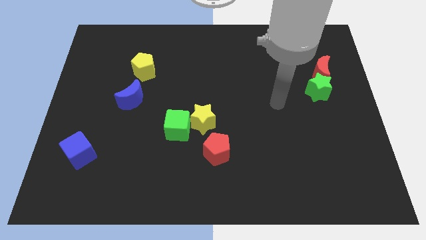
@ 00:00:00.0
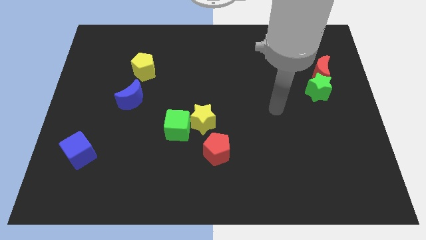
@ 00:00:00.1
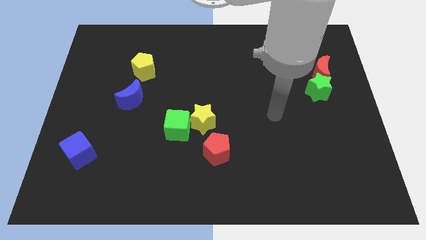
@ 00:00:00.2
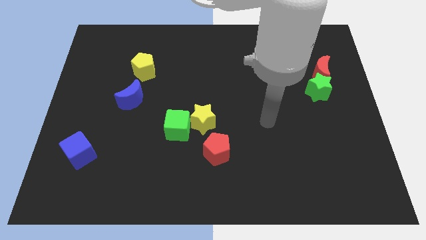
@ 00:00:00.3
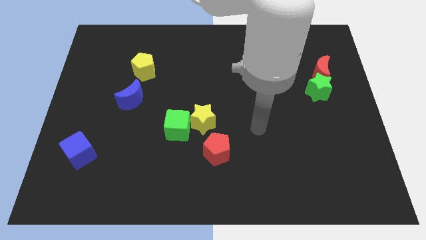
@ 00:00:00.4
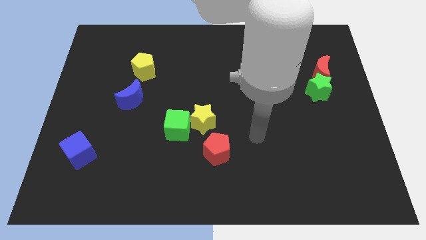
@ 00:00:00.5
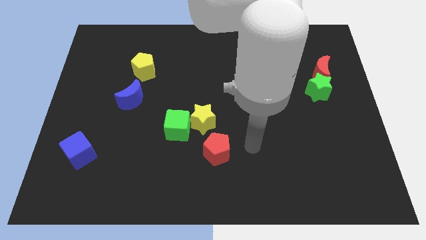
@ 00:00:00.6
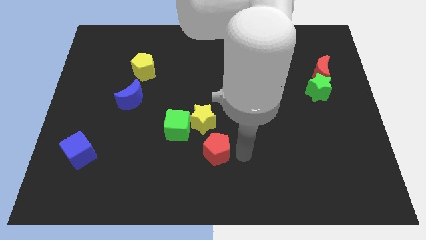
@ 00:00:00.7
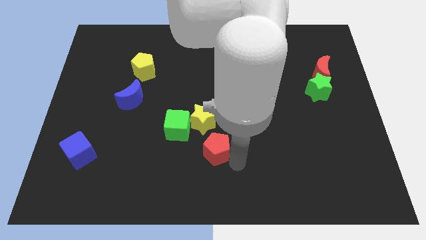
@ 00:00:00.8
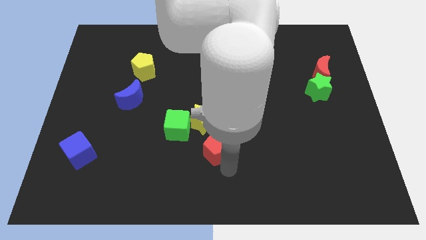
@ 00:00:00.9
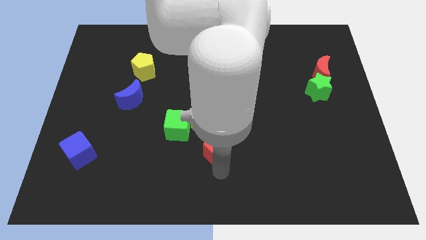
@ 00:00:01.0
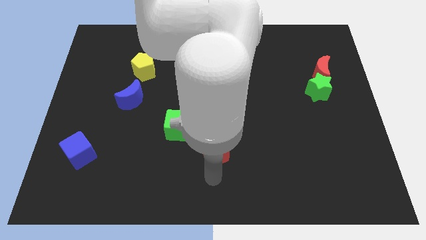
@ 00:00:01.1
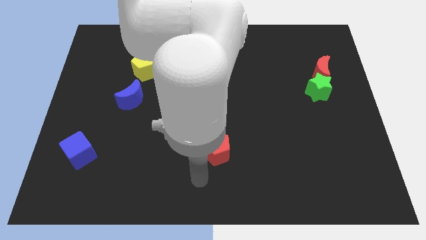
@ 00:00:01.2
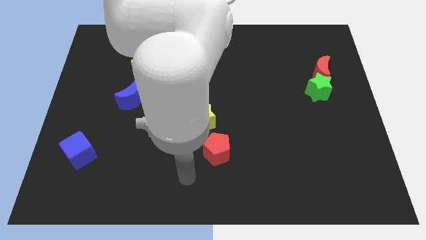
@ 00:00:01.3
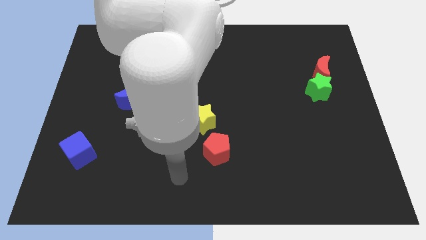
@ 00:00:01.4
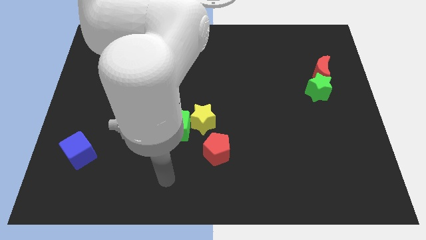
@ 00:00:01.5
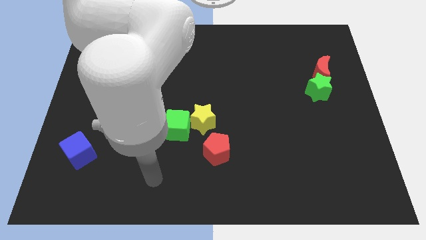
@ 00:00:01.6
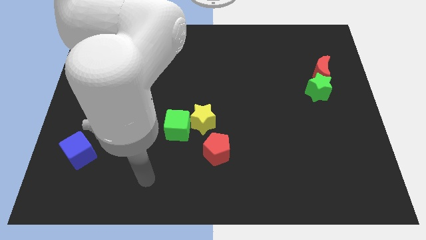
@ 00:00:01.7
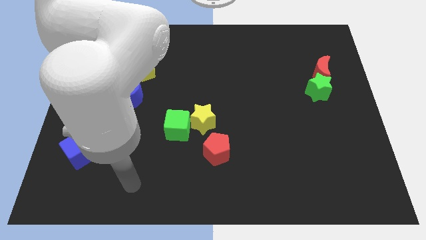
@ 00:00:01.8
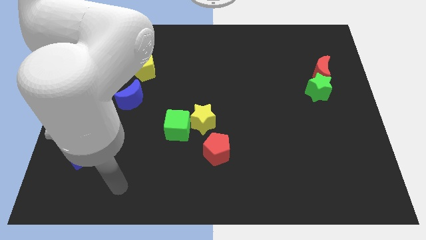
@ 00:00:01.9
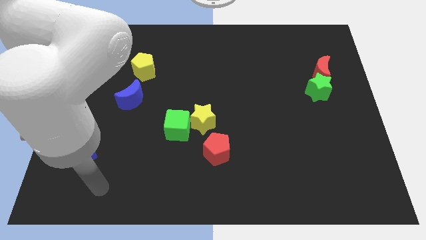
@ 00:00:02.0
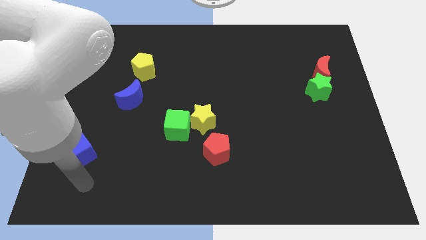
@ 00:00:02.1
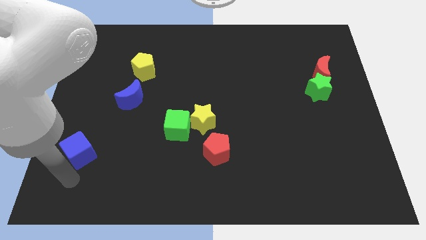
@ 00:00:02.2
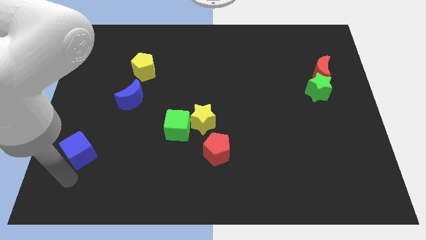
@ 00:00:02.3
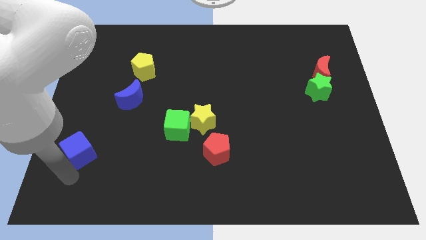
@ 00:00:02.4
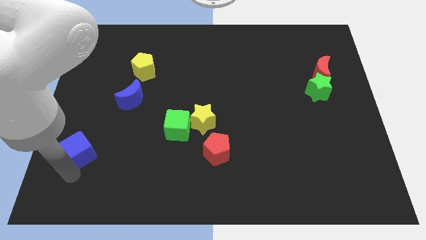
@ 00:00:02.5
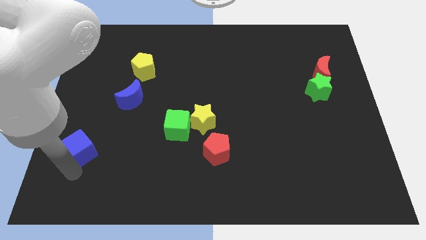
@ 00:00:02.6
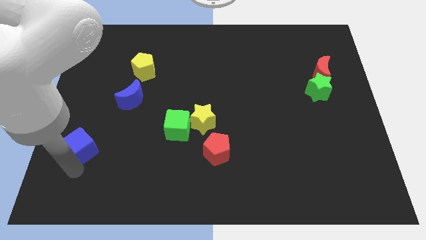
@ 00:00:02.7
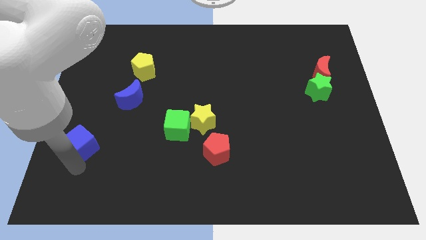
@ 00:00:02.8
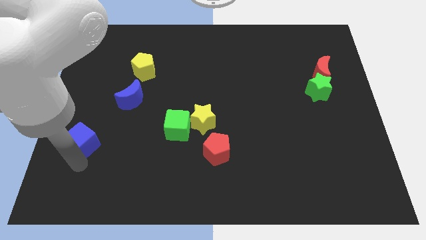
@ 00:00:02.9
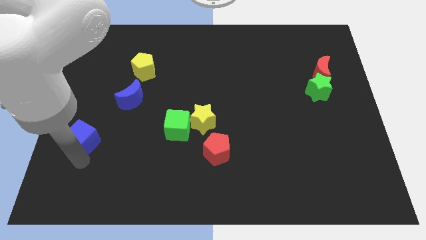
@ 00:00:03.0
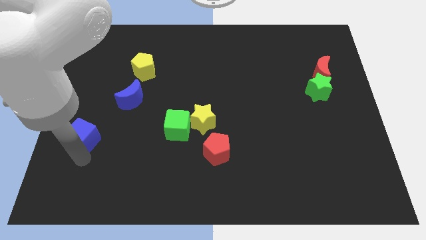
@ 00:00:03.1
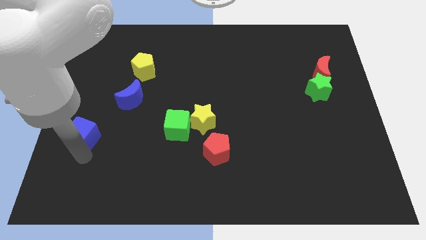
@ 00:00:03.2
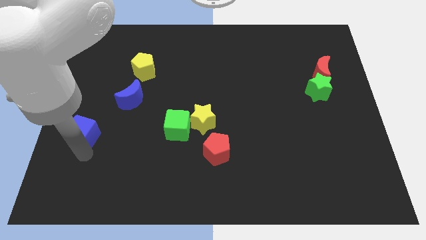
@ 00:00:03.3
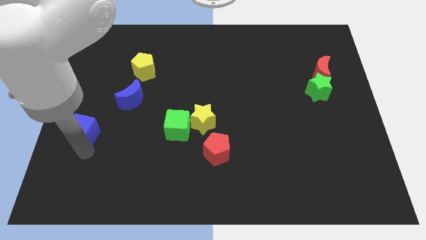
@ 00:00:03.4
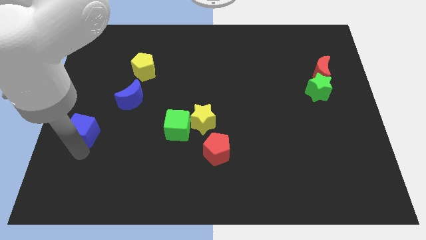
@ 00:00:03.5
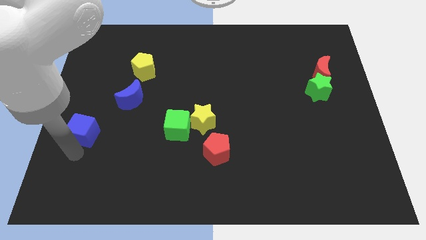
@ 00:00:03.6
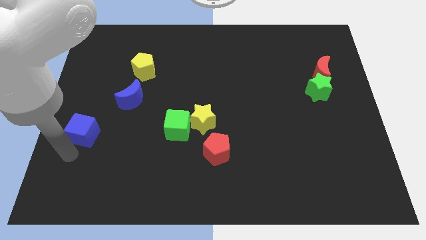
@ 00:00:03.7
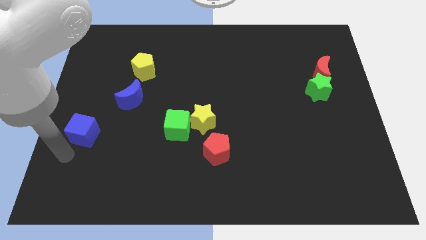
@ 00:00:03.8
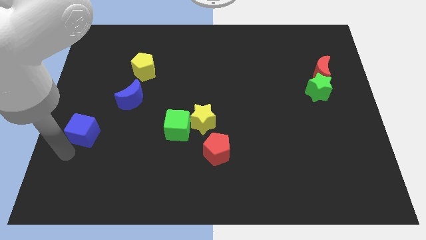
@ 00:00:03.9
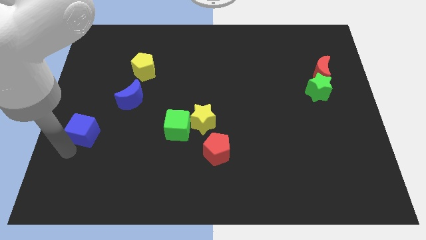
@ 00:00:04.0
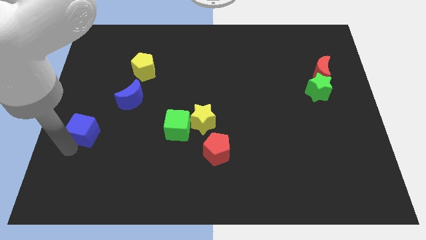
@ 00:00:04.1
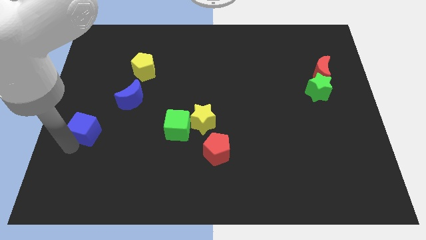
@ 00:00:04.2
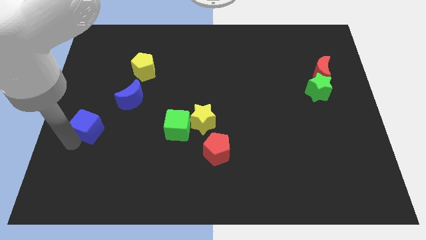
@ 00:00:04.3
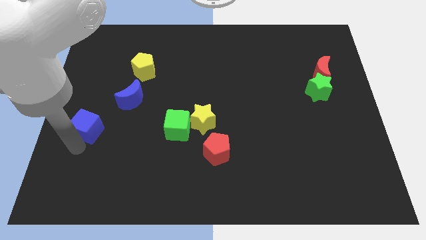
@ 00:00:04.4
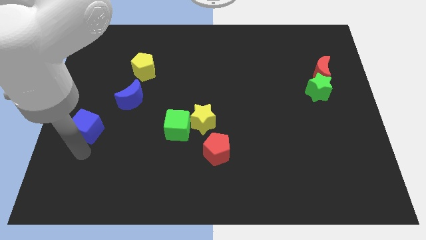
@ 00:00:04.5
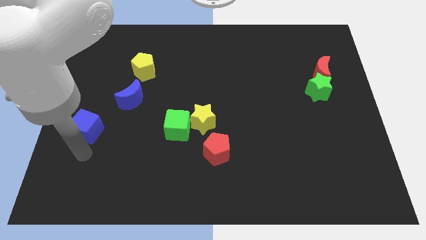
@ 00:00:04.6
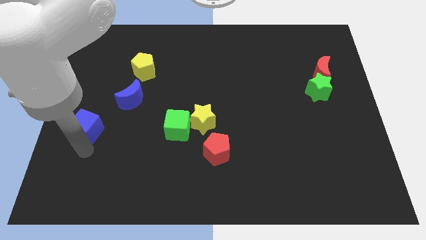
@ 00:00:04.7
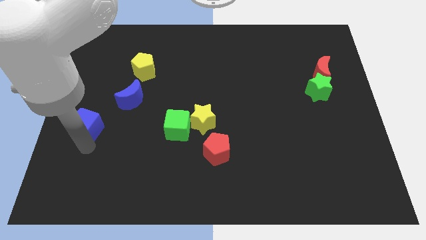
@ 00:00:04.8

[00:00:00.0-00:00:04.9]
push the blue cube a bit upwards

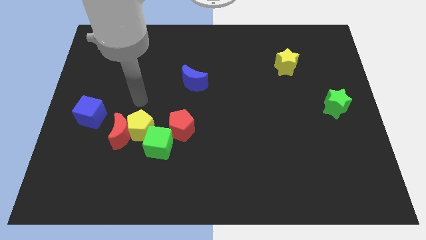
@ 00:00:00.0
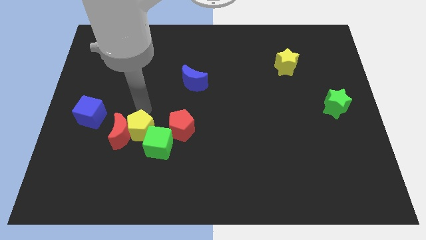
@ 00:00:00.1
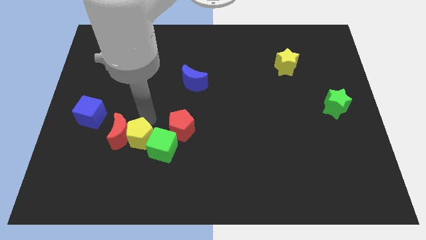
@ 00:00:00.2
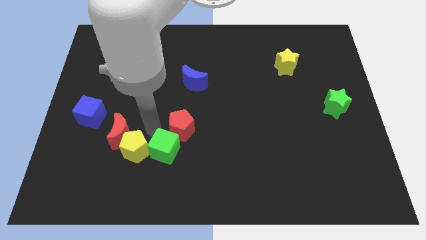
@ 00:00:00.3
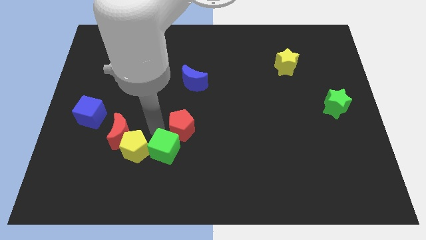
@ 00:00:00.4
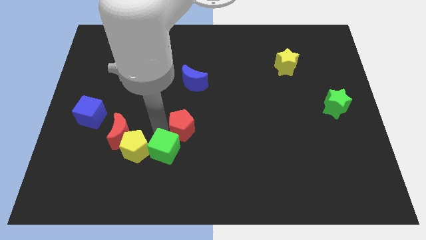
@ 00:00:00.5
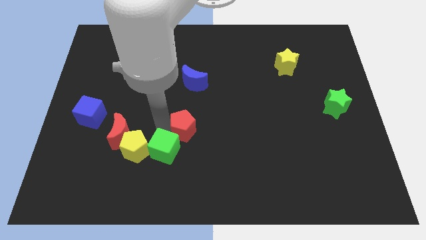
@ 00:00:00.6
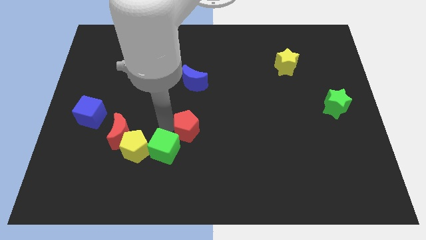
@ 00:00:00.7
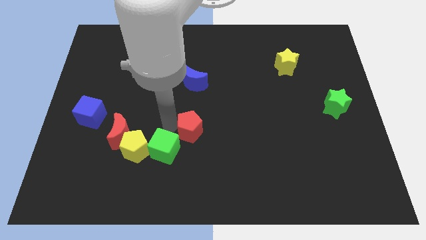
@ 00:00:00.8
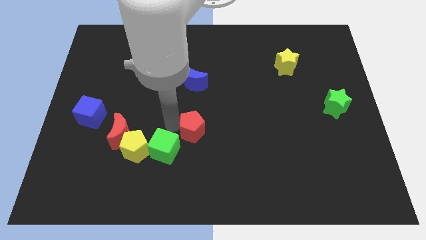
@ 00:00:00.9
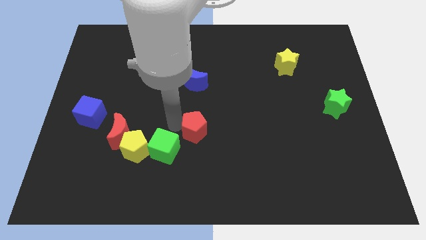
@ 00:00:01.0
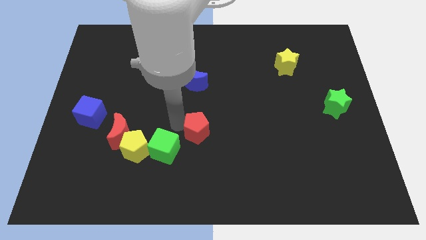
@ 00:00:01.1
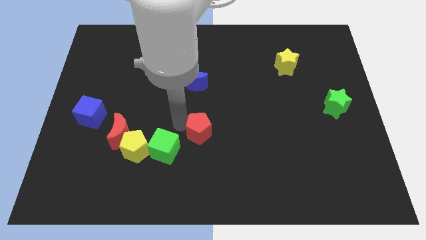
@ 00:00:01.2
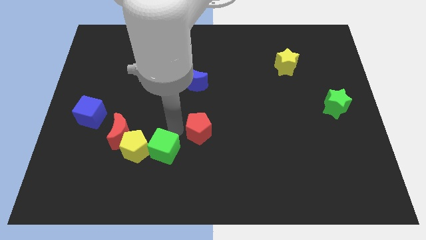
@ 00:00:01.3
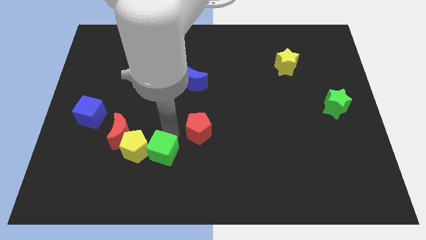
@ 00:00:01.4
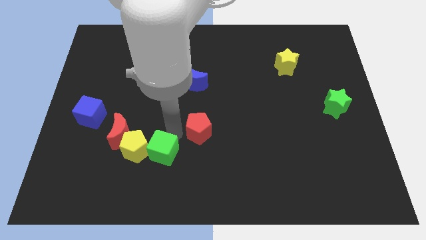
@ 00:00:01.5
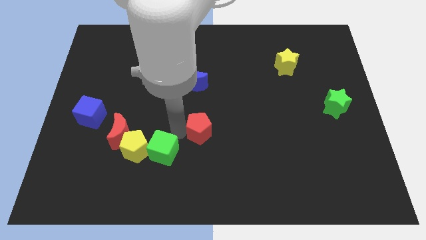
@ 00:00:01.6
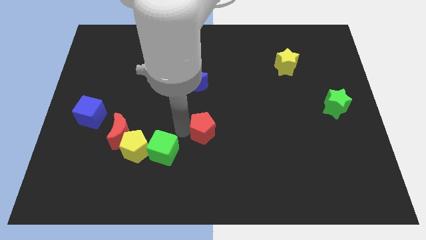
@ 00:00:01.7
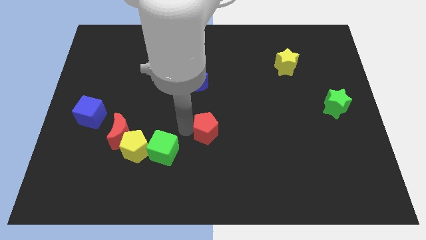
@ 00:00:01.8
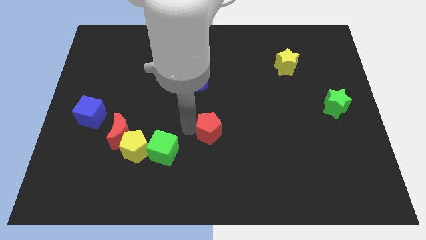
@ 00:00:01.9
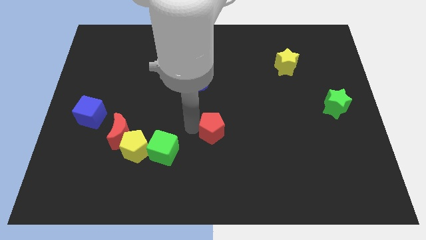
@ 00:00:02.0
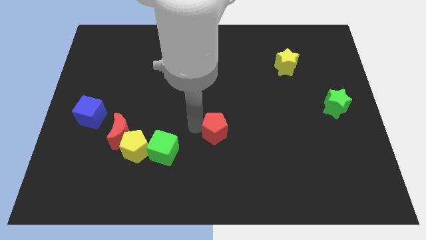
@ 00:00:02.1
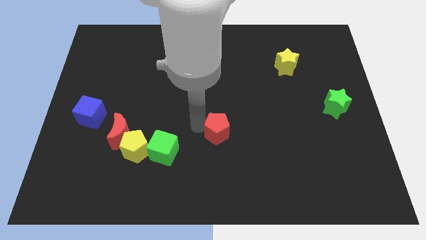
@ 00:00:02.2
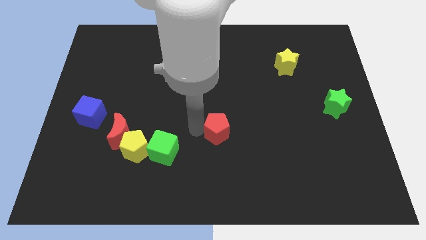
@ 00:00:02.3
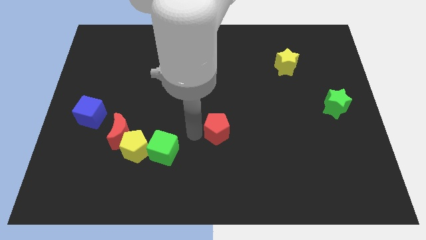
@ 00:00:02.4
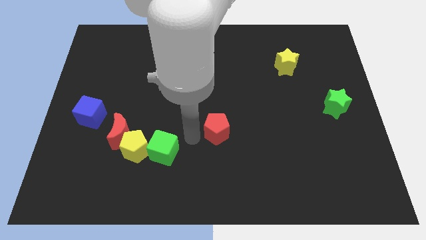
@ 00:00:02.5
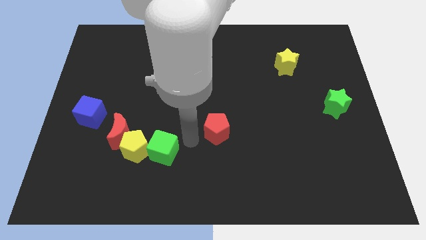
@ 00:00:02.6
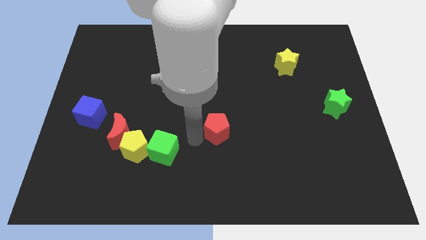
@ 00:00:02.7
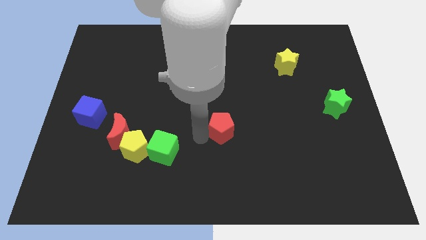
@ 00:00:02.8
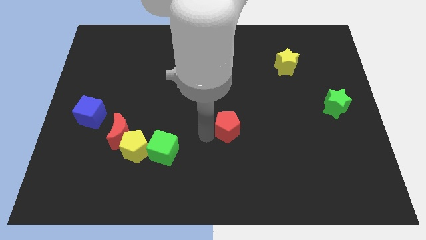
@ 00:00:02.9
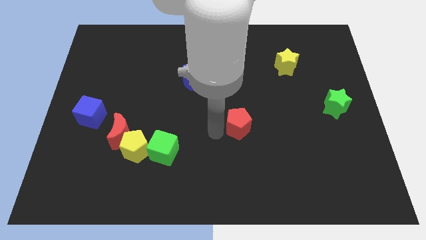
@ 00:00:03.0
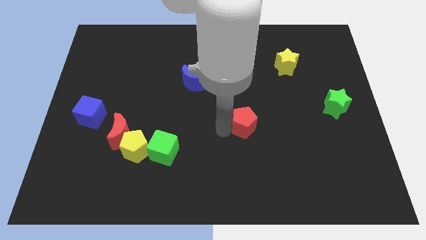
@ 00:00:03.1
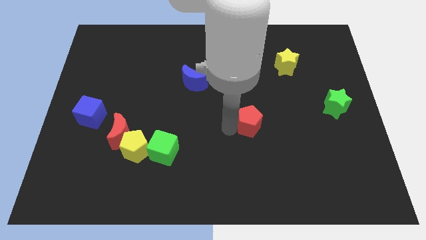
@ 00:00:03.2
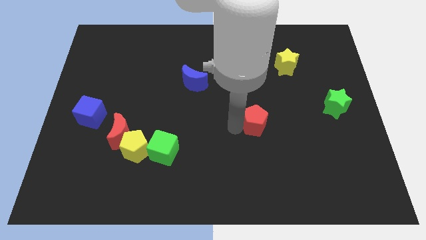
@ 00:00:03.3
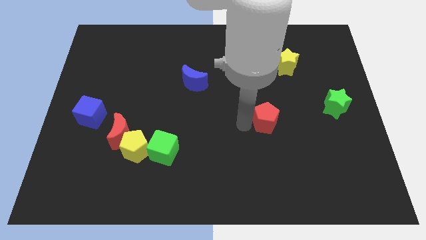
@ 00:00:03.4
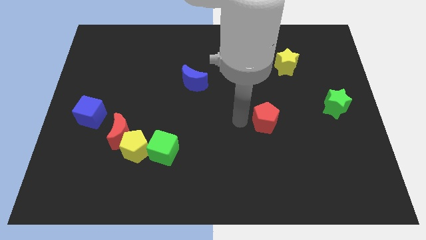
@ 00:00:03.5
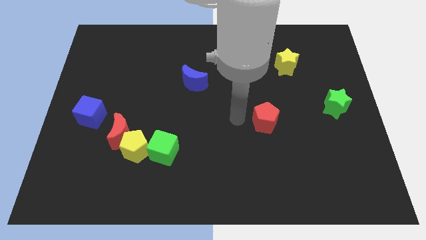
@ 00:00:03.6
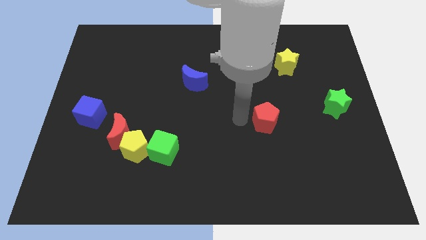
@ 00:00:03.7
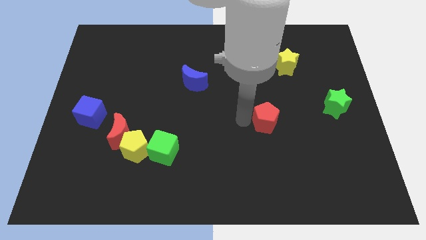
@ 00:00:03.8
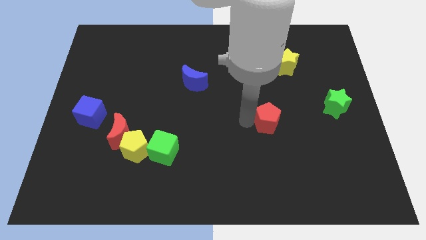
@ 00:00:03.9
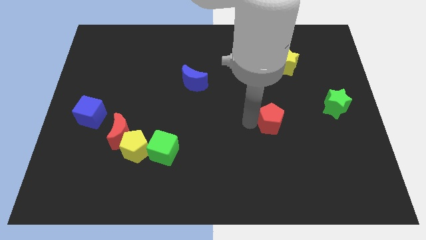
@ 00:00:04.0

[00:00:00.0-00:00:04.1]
move the red pentagon right
